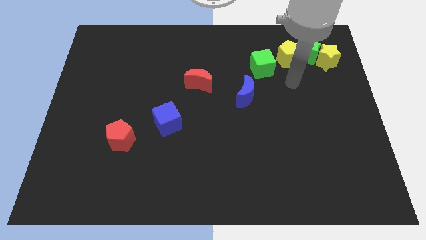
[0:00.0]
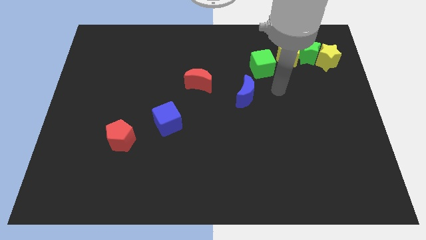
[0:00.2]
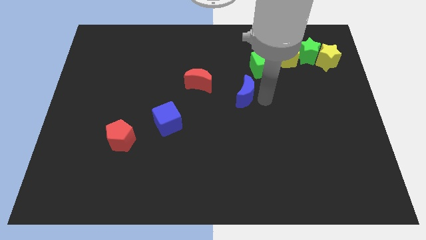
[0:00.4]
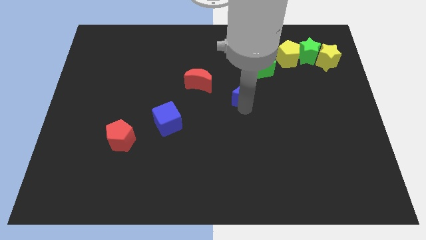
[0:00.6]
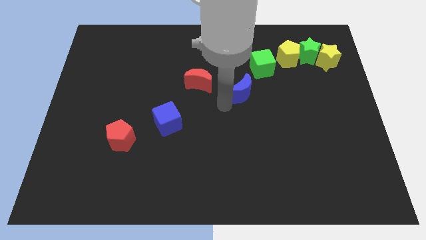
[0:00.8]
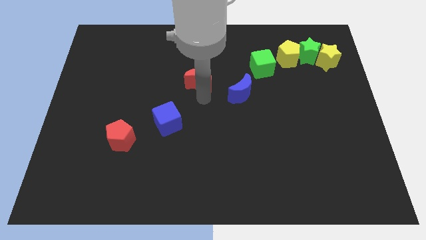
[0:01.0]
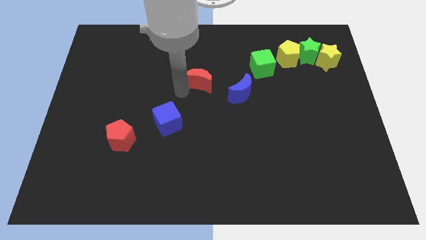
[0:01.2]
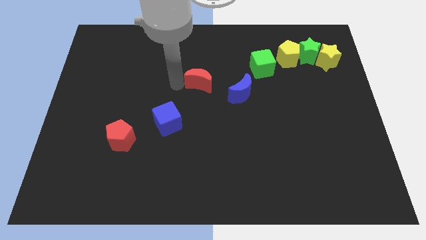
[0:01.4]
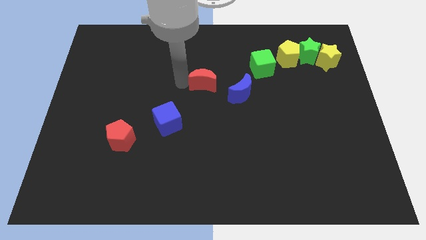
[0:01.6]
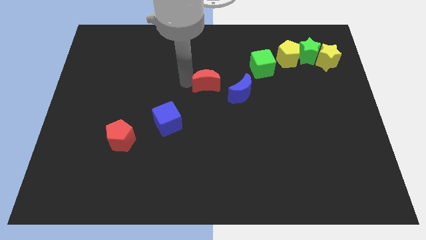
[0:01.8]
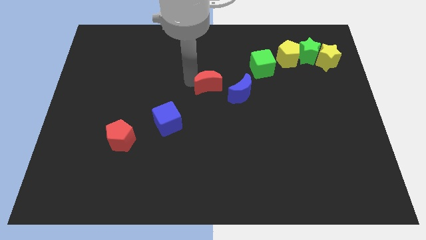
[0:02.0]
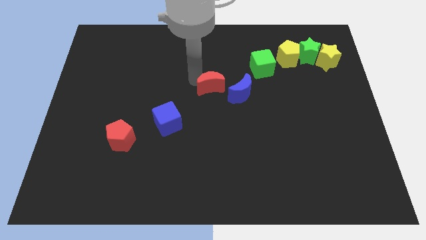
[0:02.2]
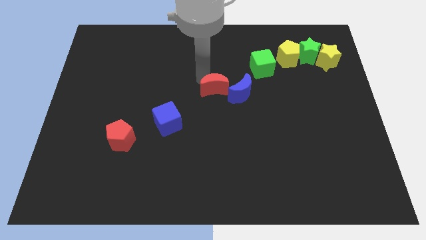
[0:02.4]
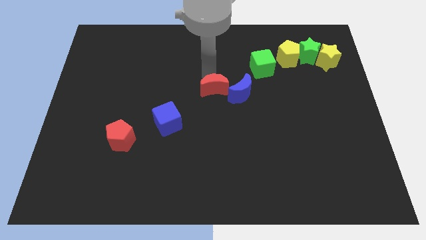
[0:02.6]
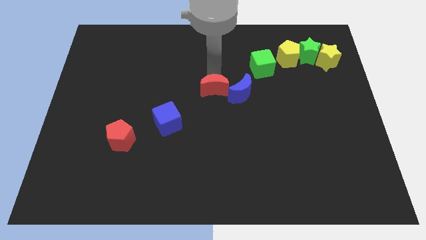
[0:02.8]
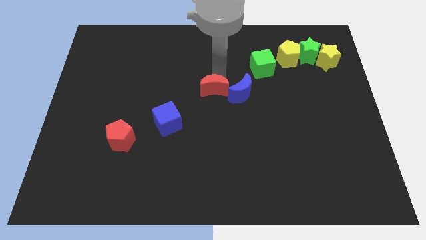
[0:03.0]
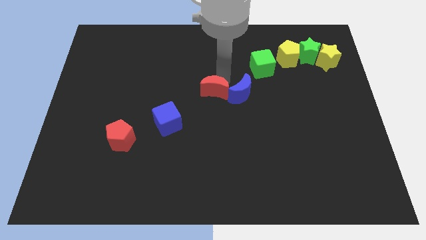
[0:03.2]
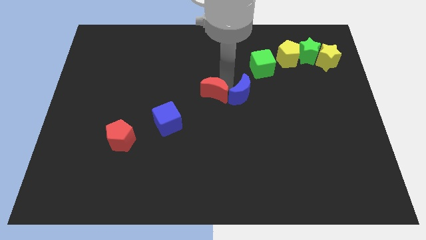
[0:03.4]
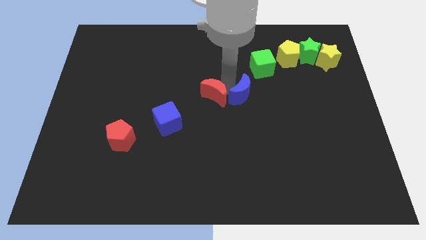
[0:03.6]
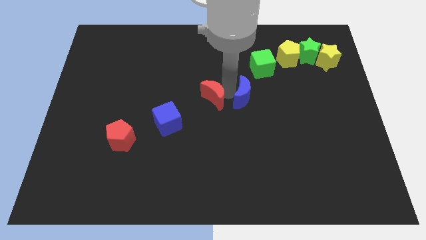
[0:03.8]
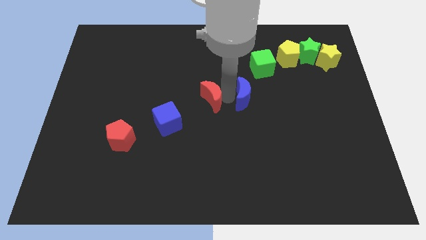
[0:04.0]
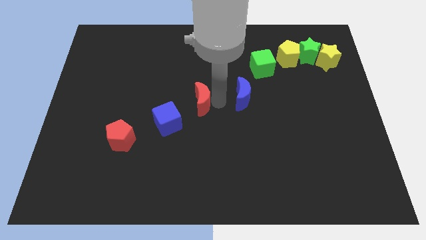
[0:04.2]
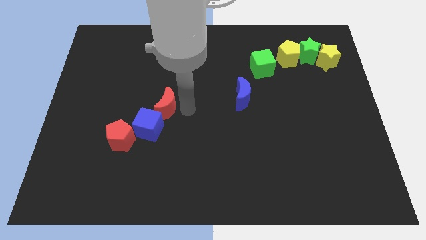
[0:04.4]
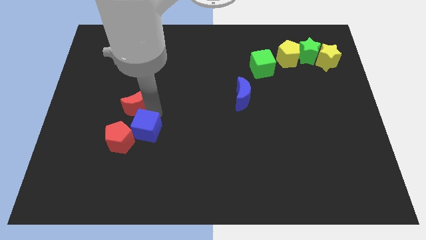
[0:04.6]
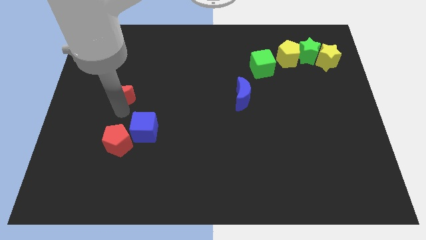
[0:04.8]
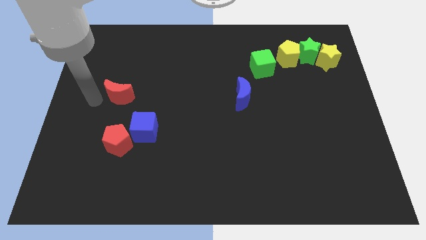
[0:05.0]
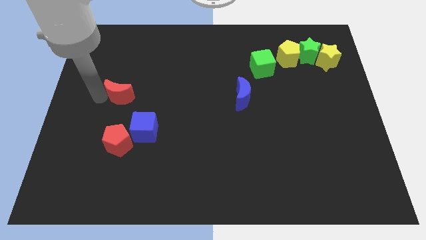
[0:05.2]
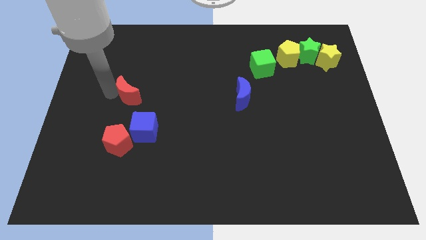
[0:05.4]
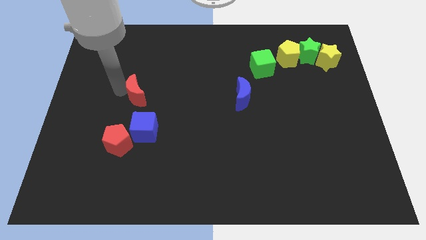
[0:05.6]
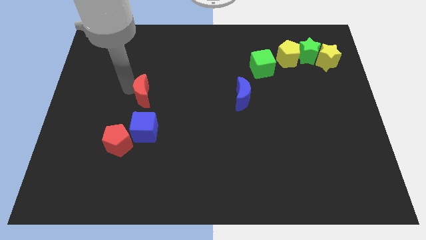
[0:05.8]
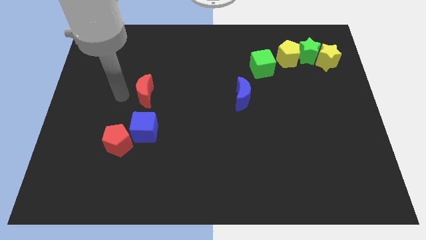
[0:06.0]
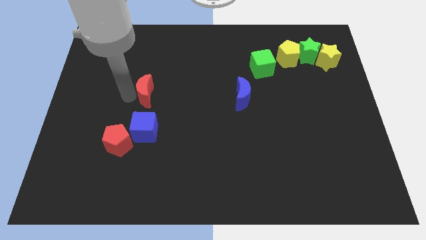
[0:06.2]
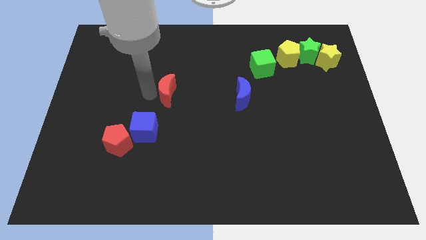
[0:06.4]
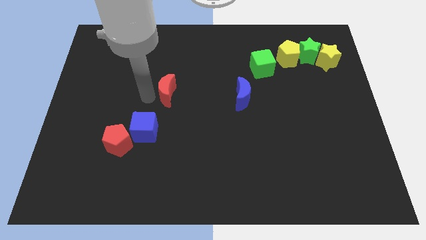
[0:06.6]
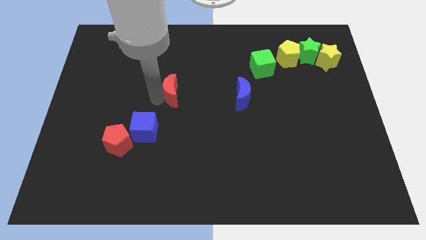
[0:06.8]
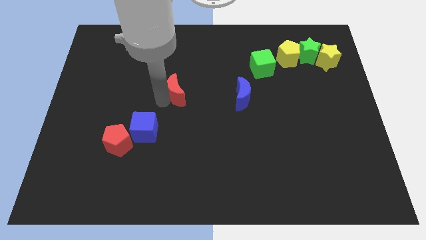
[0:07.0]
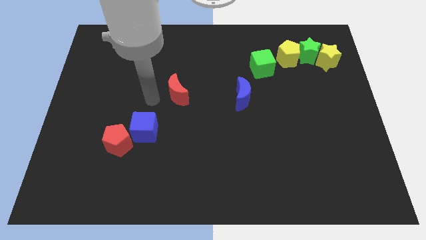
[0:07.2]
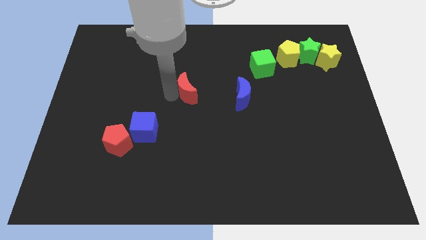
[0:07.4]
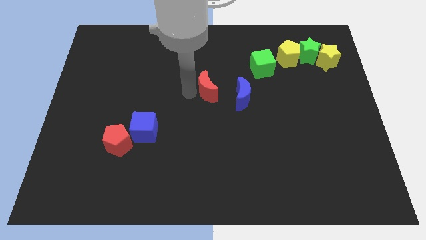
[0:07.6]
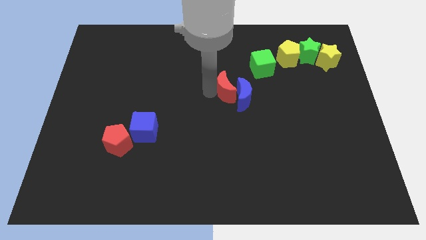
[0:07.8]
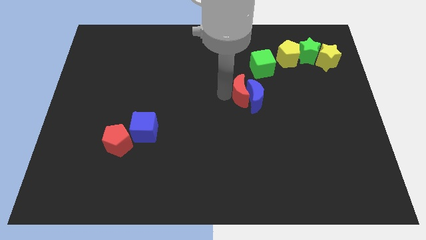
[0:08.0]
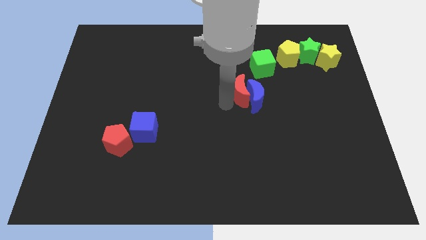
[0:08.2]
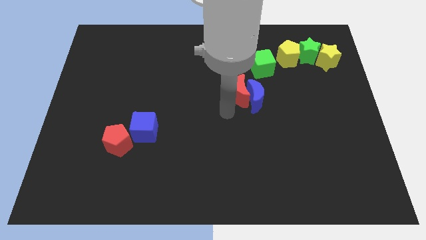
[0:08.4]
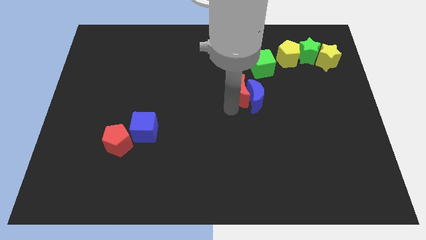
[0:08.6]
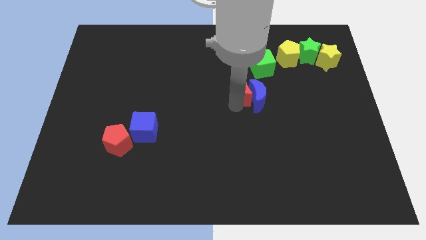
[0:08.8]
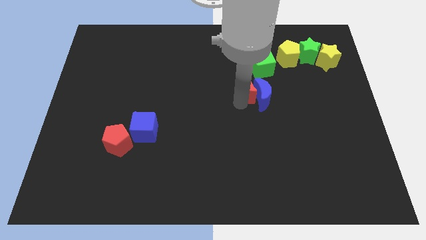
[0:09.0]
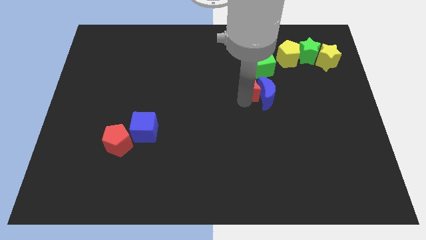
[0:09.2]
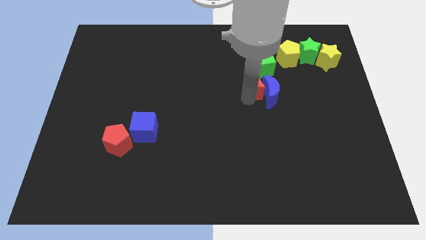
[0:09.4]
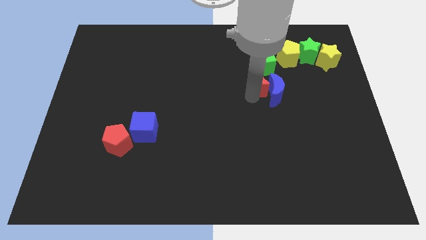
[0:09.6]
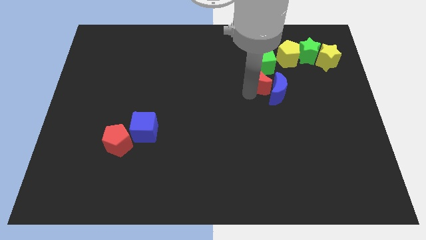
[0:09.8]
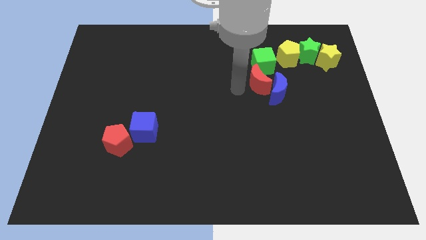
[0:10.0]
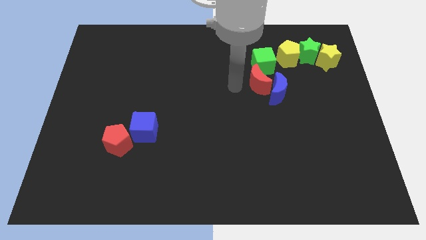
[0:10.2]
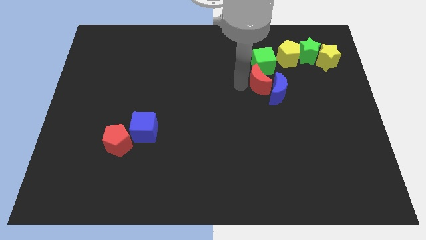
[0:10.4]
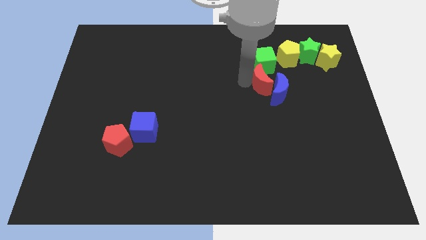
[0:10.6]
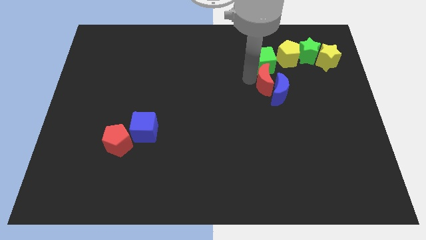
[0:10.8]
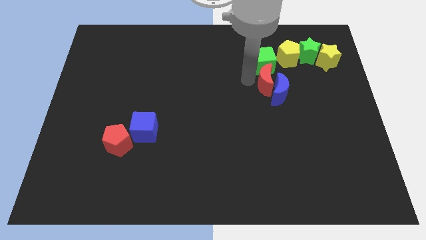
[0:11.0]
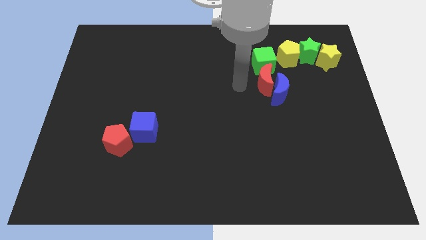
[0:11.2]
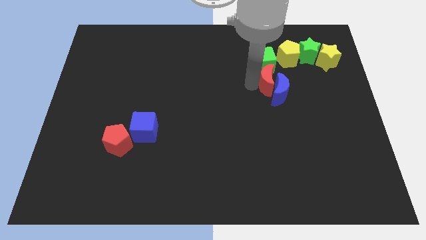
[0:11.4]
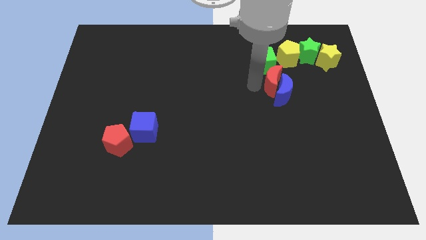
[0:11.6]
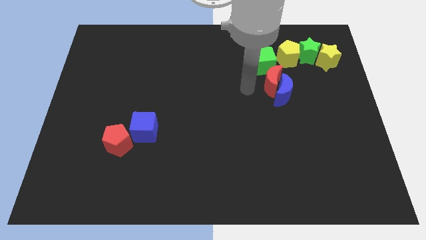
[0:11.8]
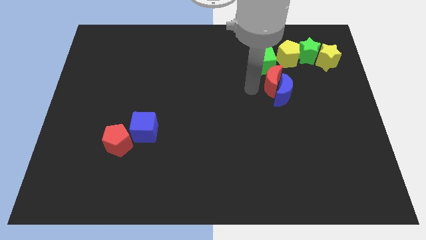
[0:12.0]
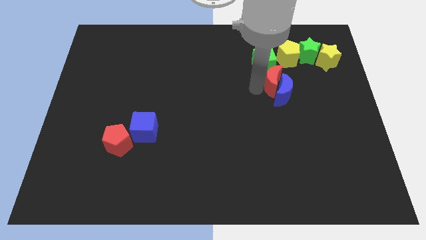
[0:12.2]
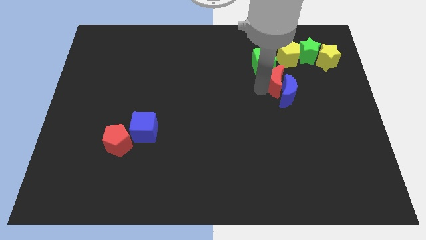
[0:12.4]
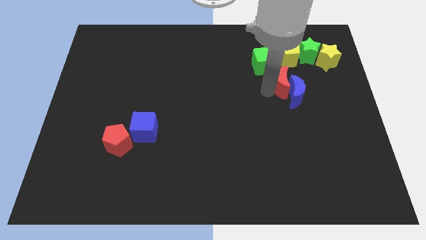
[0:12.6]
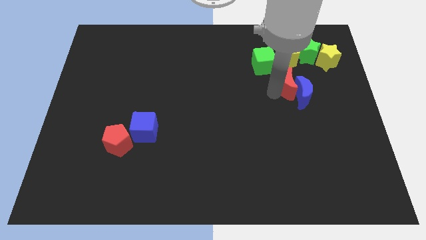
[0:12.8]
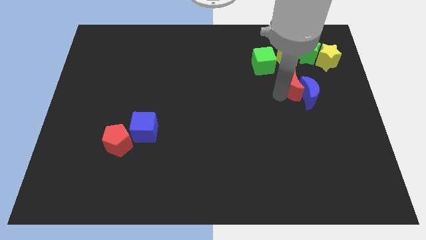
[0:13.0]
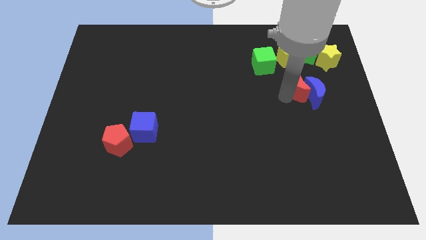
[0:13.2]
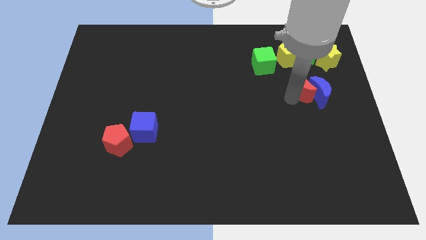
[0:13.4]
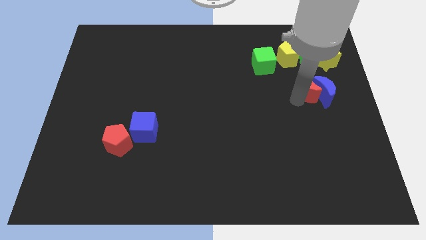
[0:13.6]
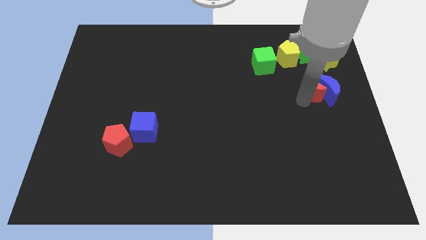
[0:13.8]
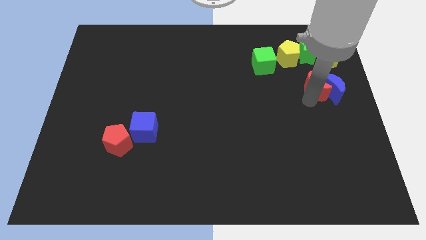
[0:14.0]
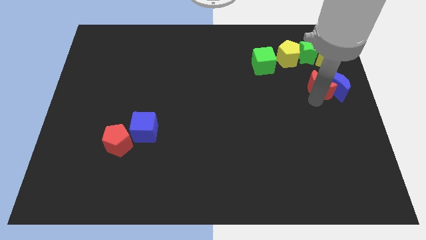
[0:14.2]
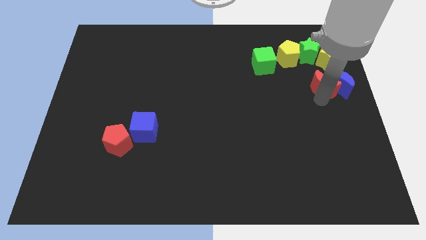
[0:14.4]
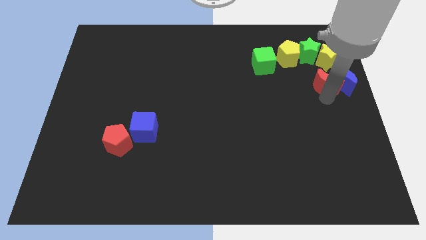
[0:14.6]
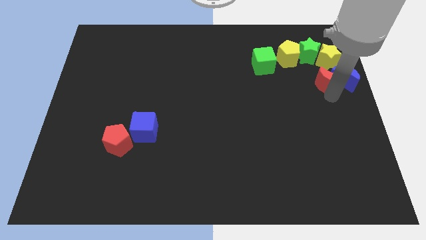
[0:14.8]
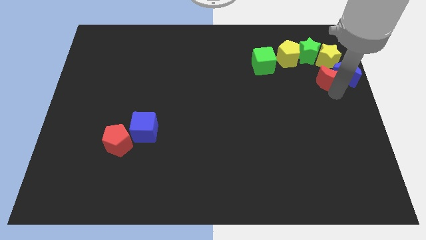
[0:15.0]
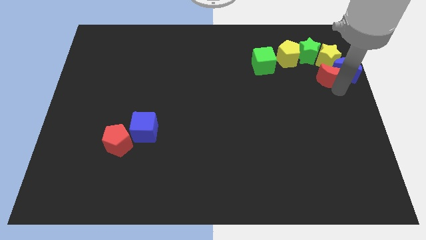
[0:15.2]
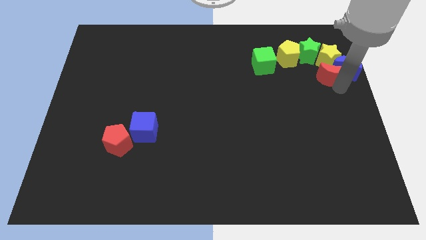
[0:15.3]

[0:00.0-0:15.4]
move the red moon to the yellow star
